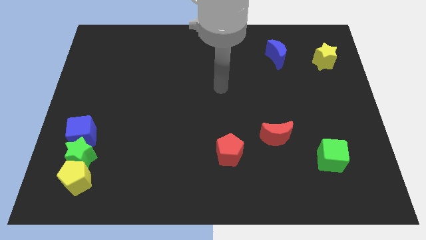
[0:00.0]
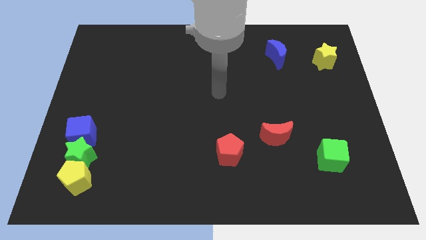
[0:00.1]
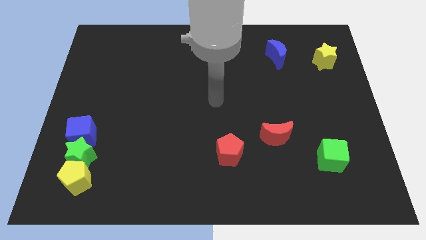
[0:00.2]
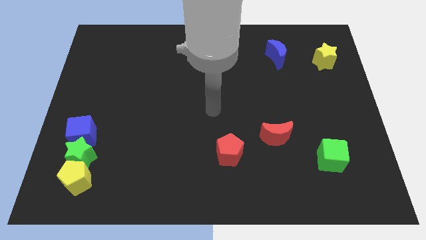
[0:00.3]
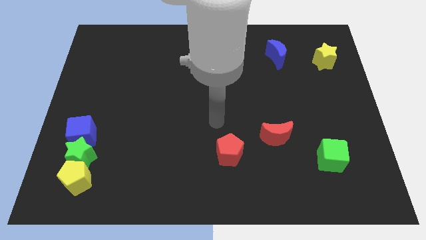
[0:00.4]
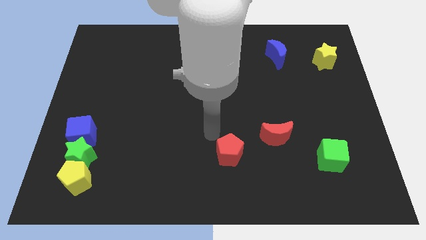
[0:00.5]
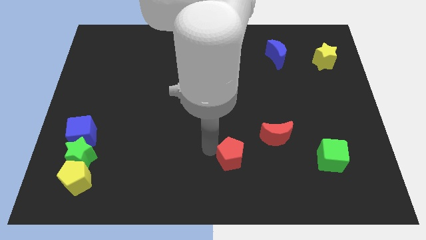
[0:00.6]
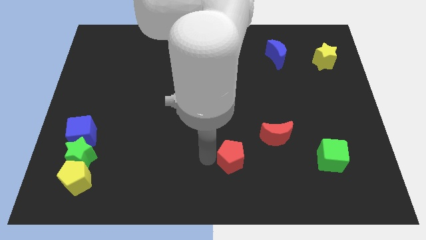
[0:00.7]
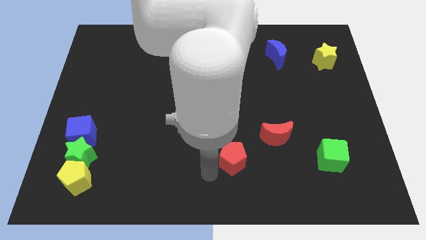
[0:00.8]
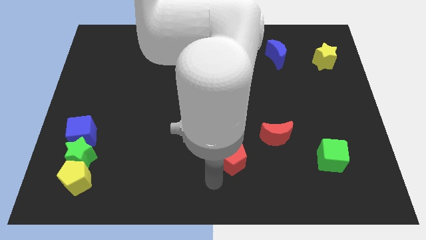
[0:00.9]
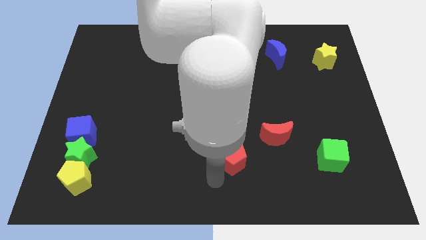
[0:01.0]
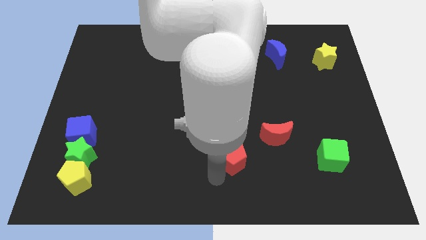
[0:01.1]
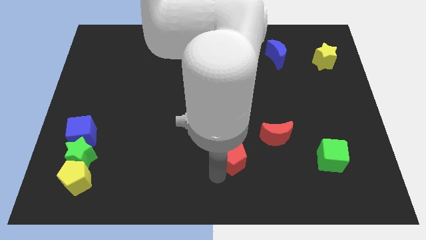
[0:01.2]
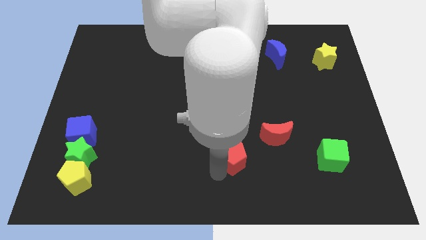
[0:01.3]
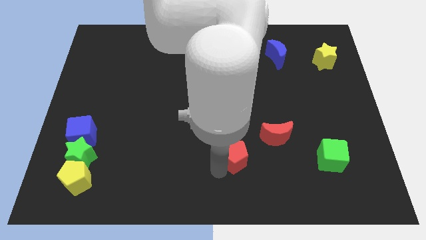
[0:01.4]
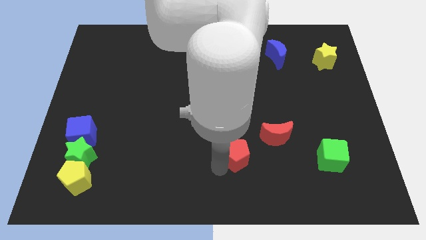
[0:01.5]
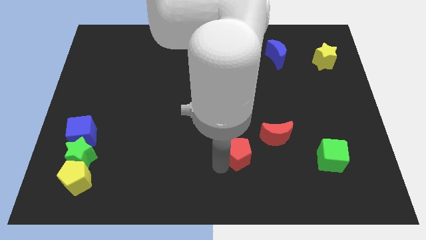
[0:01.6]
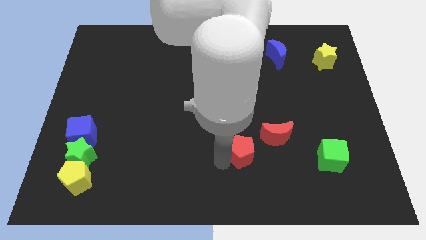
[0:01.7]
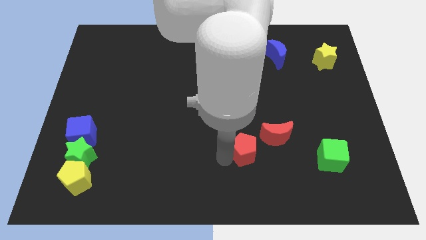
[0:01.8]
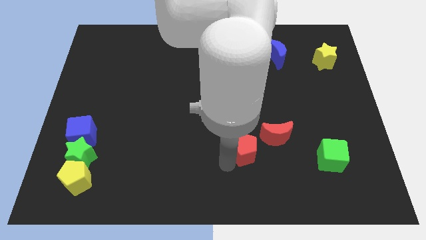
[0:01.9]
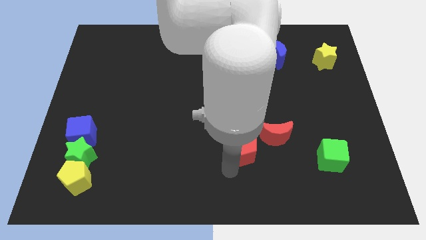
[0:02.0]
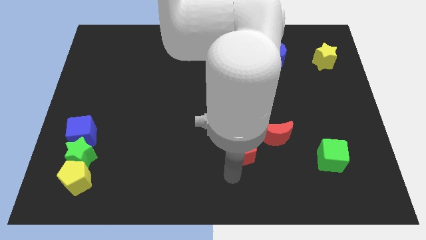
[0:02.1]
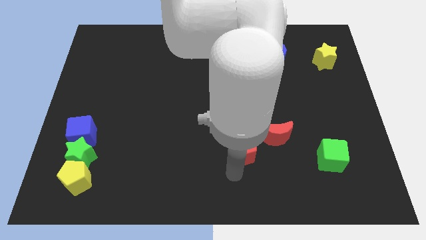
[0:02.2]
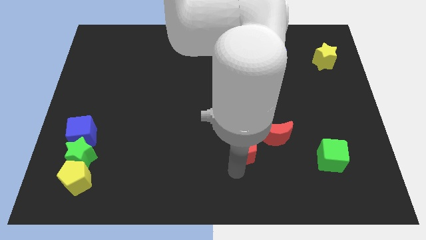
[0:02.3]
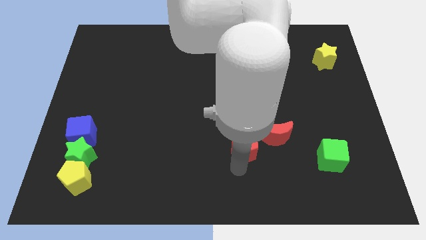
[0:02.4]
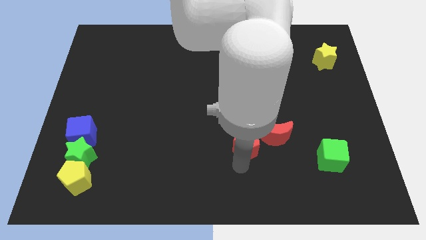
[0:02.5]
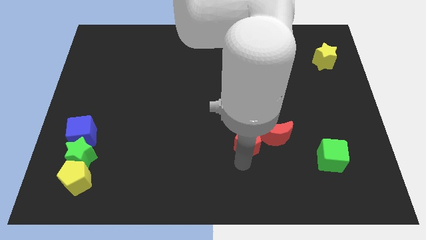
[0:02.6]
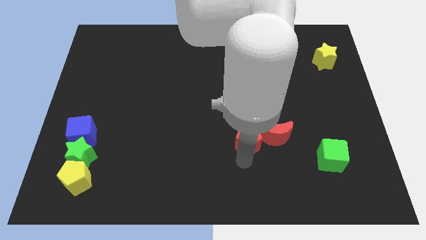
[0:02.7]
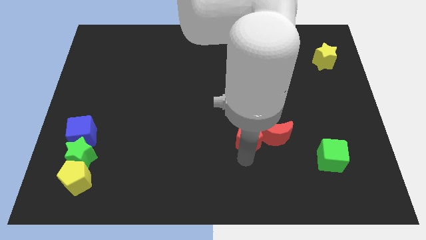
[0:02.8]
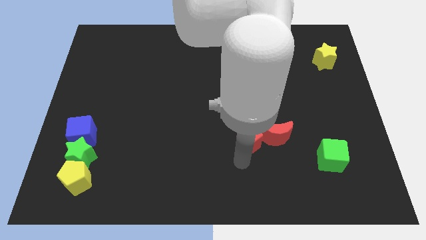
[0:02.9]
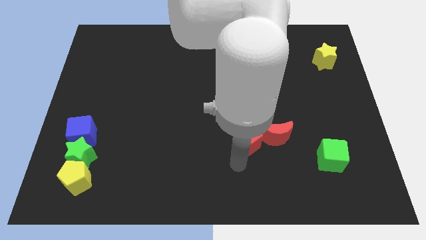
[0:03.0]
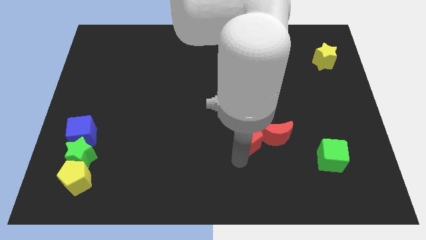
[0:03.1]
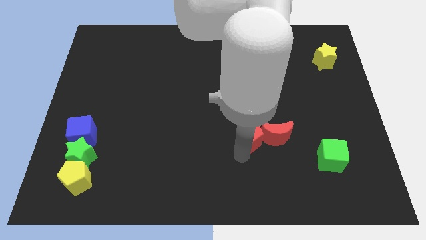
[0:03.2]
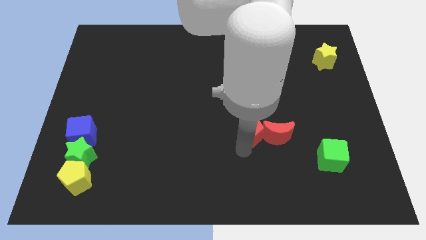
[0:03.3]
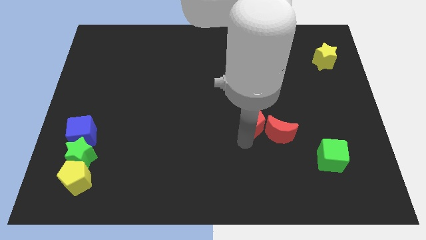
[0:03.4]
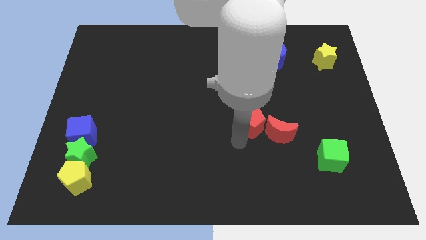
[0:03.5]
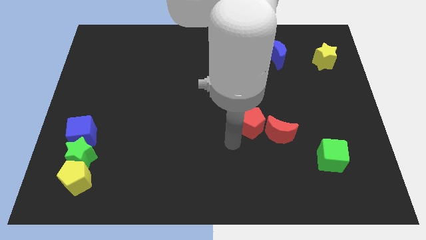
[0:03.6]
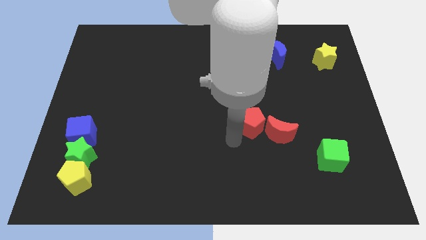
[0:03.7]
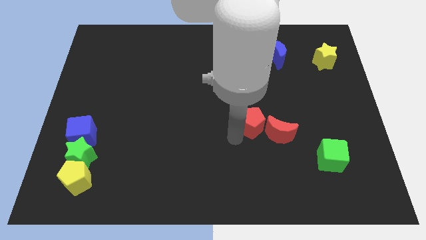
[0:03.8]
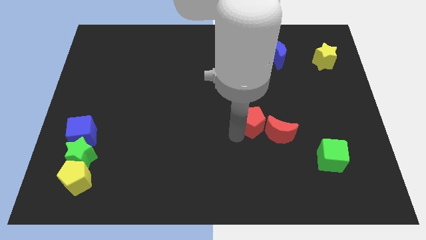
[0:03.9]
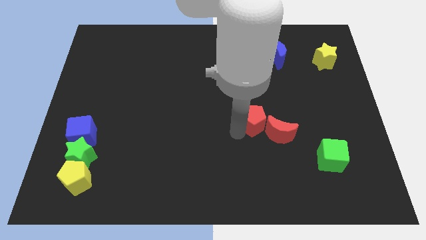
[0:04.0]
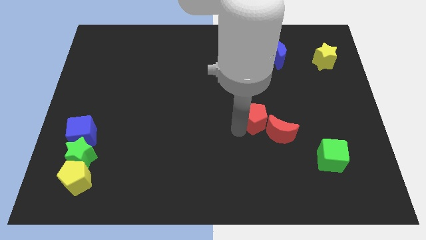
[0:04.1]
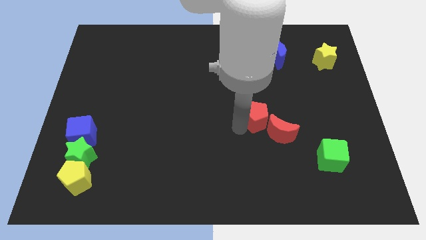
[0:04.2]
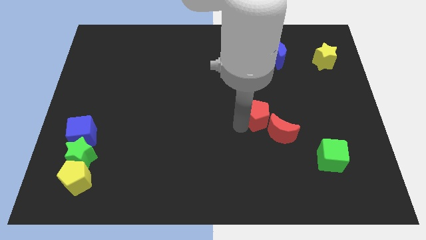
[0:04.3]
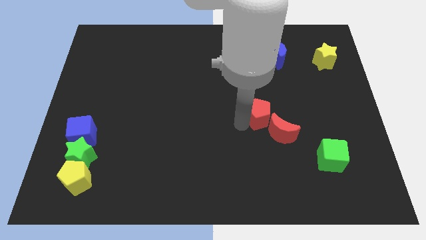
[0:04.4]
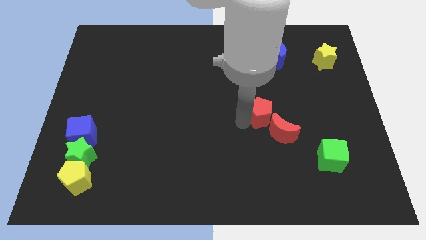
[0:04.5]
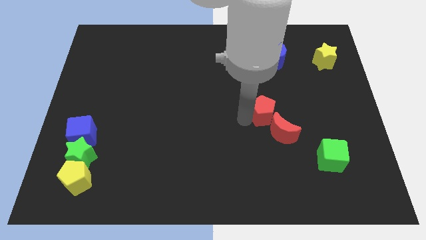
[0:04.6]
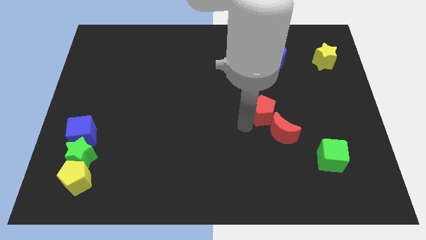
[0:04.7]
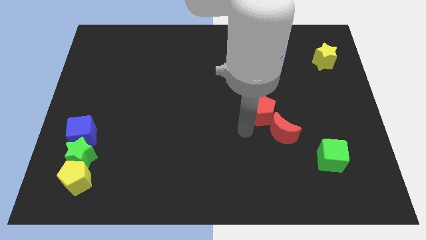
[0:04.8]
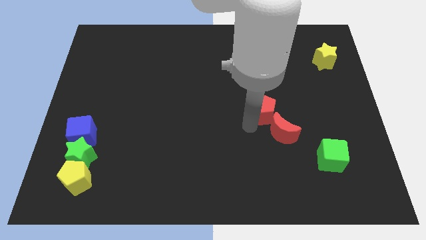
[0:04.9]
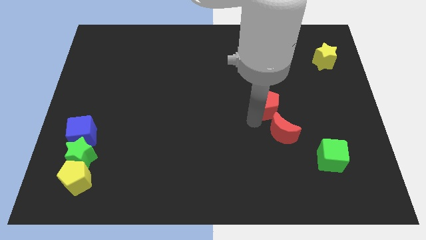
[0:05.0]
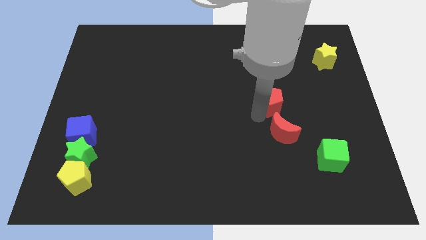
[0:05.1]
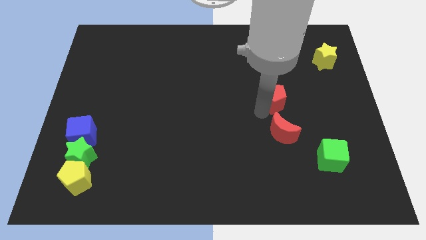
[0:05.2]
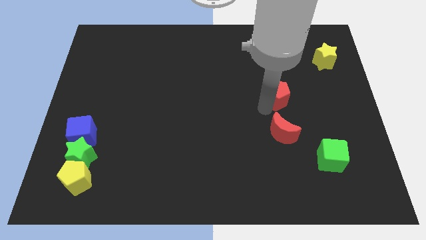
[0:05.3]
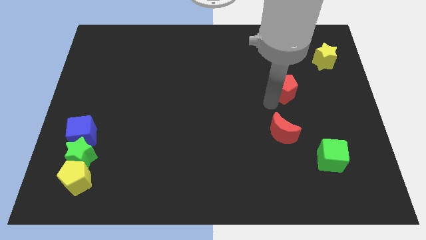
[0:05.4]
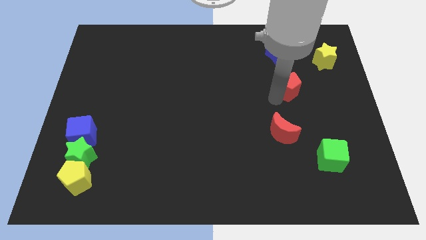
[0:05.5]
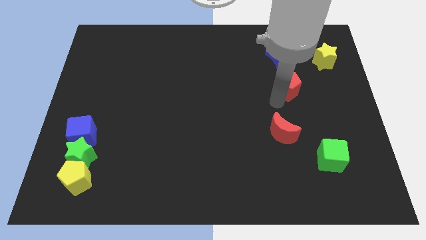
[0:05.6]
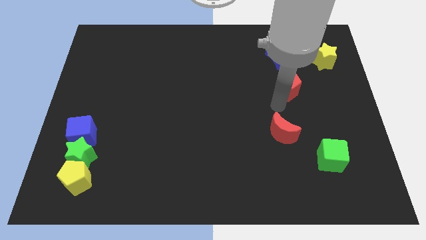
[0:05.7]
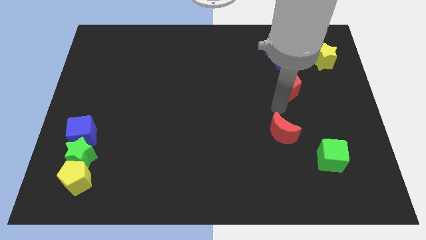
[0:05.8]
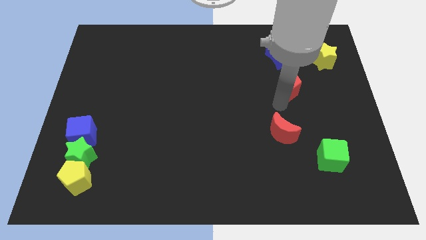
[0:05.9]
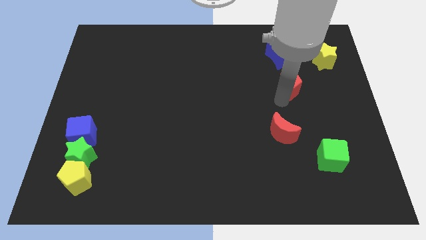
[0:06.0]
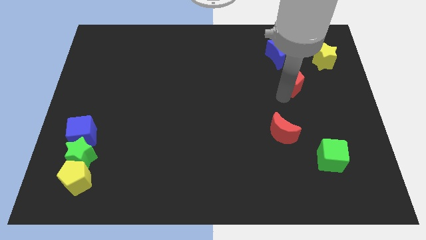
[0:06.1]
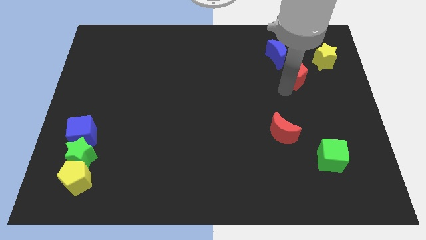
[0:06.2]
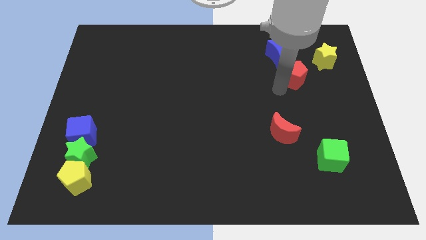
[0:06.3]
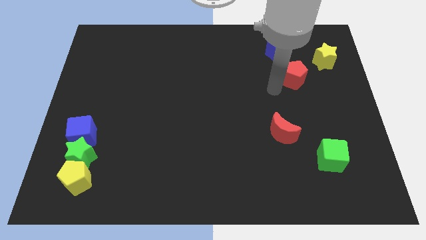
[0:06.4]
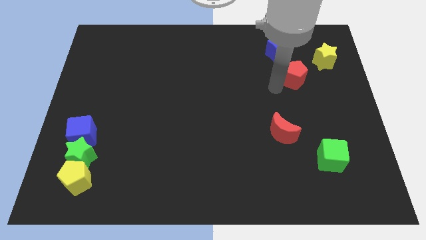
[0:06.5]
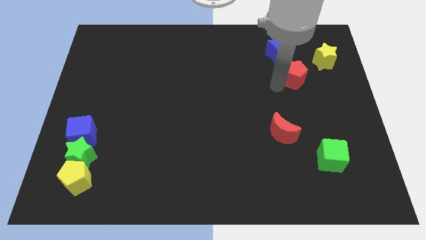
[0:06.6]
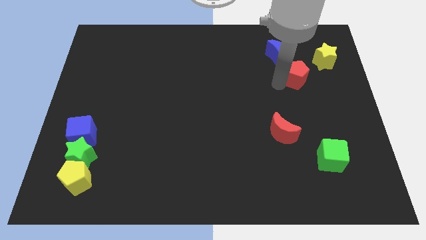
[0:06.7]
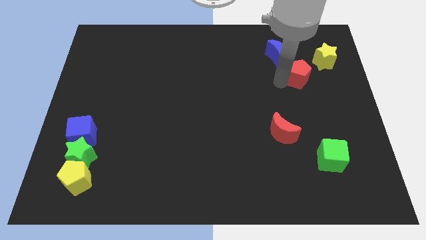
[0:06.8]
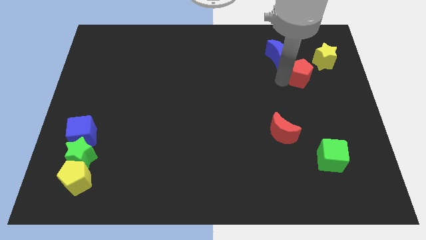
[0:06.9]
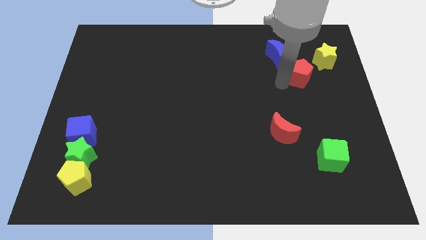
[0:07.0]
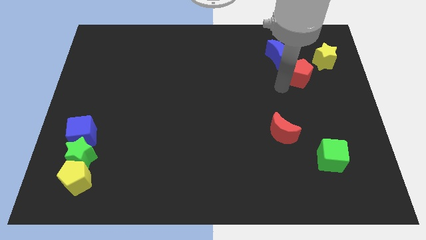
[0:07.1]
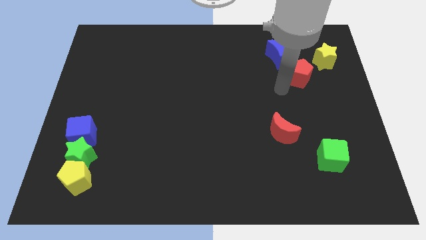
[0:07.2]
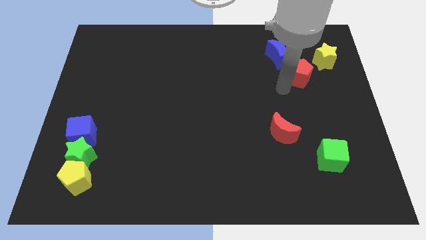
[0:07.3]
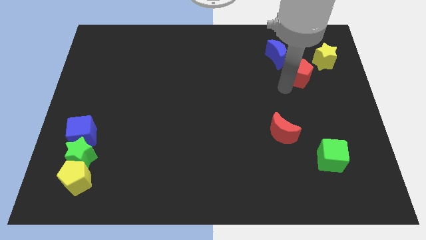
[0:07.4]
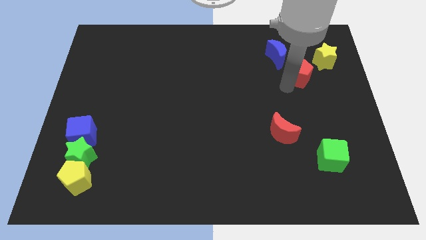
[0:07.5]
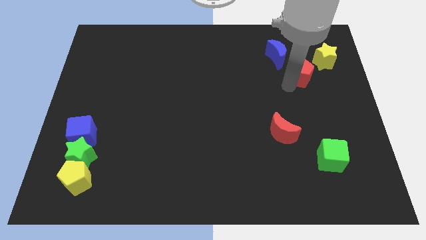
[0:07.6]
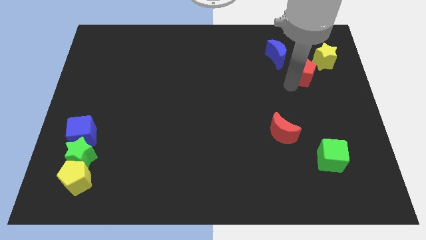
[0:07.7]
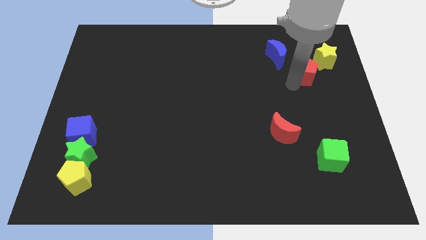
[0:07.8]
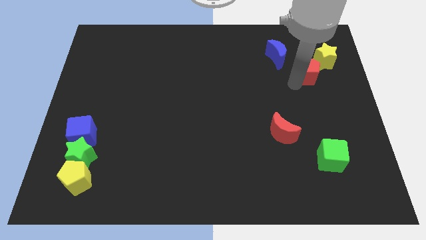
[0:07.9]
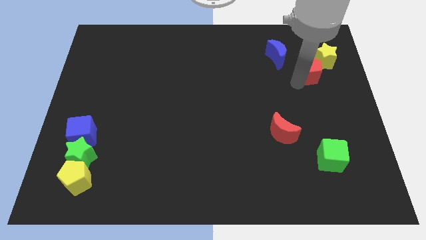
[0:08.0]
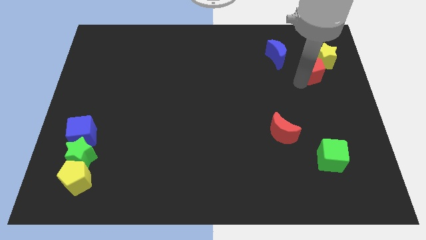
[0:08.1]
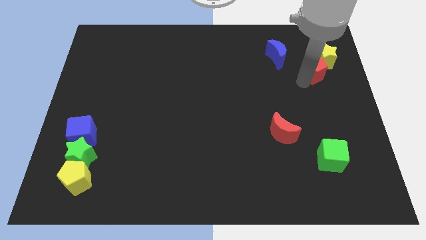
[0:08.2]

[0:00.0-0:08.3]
move the red pentagon to the yellow star
